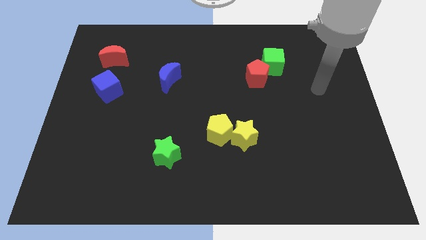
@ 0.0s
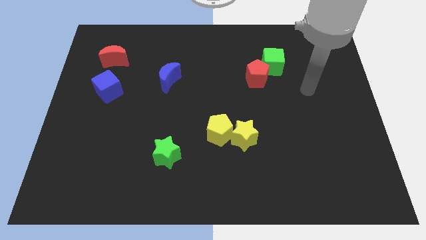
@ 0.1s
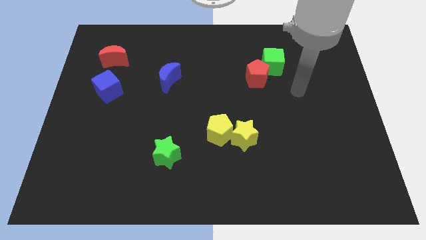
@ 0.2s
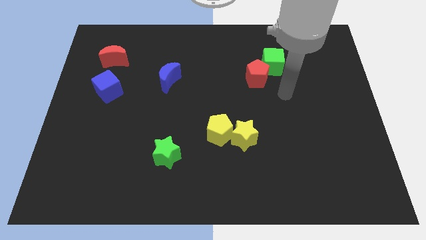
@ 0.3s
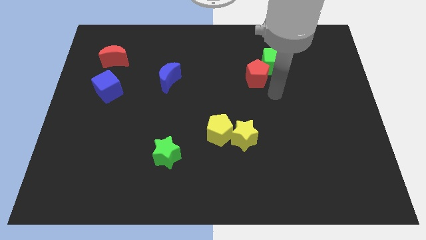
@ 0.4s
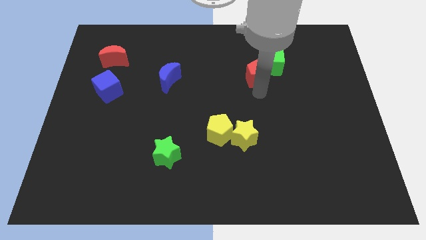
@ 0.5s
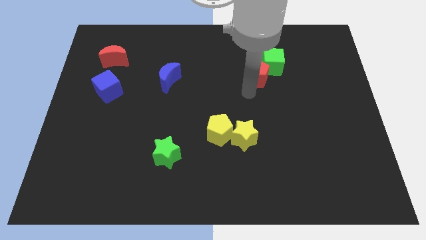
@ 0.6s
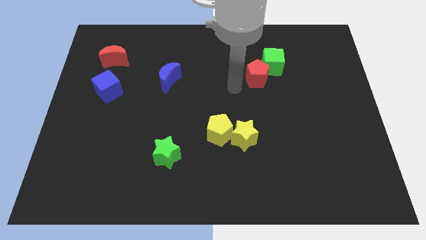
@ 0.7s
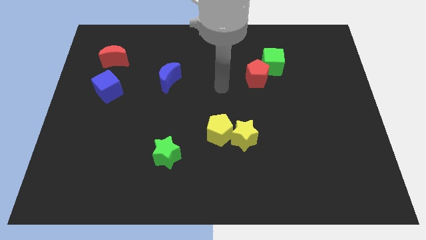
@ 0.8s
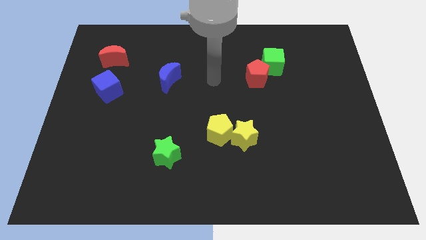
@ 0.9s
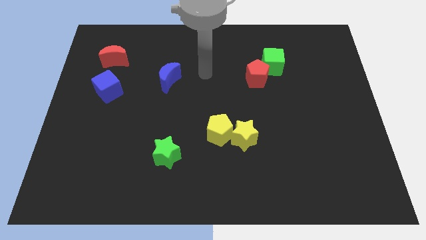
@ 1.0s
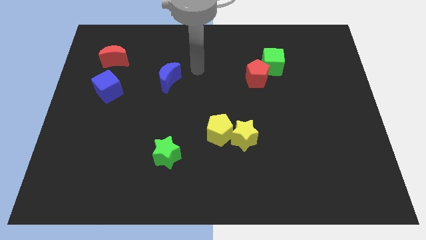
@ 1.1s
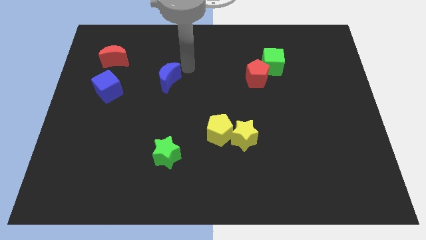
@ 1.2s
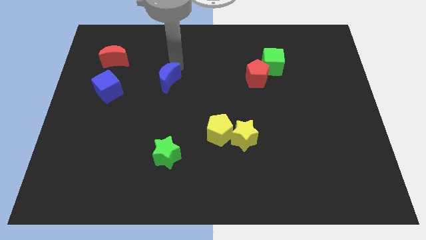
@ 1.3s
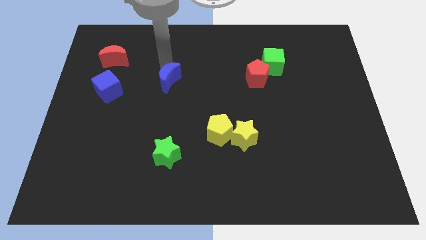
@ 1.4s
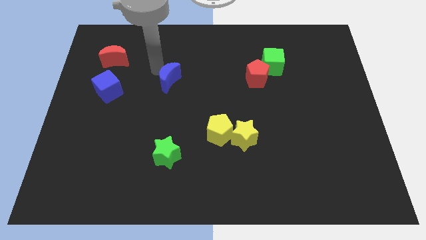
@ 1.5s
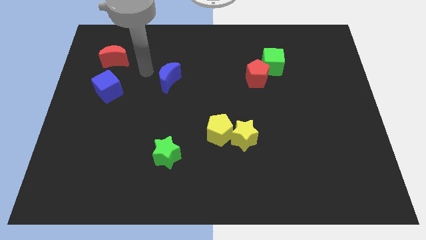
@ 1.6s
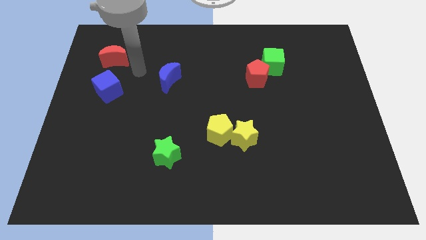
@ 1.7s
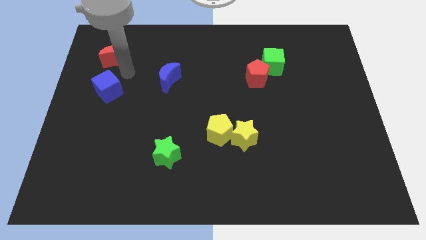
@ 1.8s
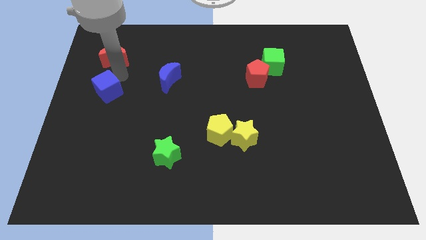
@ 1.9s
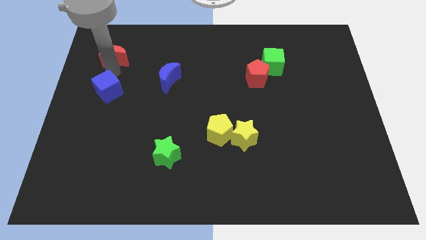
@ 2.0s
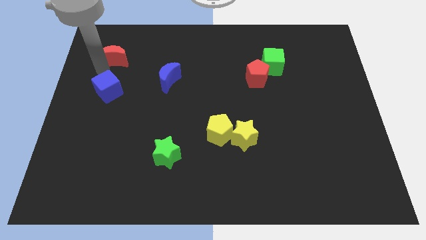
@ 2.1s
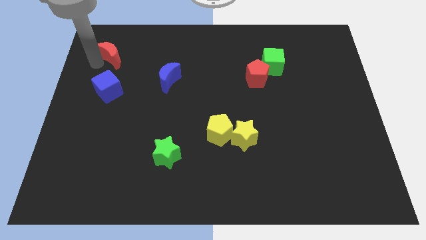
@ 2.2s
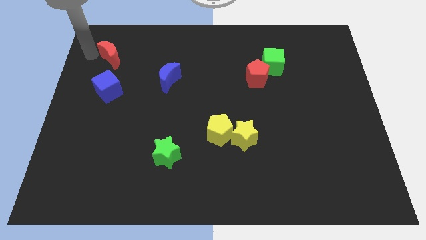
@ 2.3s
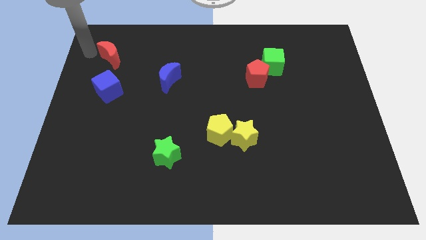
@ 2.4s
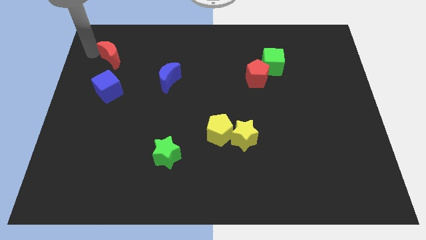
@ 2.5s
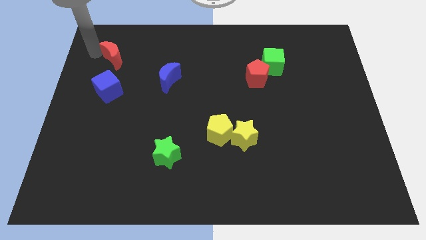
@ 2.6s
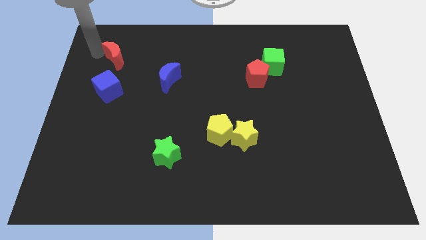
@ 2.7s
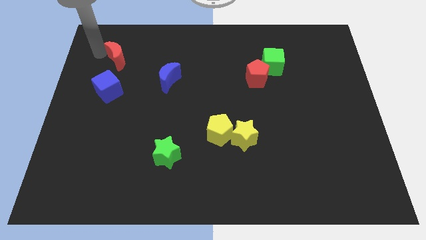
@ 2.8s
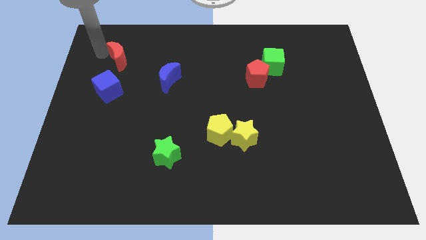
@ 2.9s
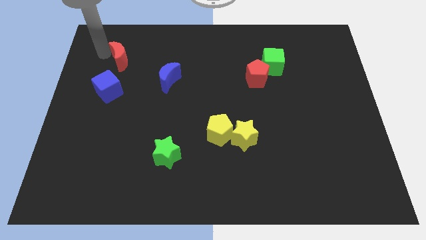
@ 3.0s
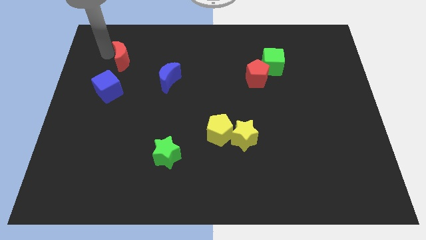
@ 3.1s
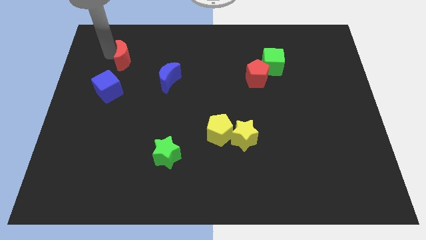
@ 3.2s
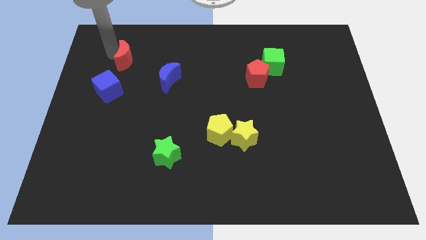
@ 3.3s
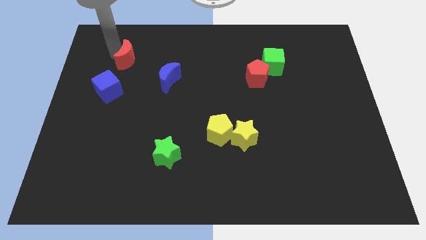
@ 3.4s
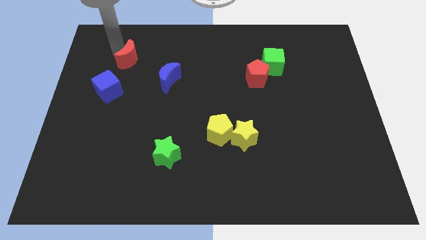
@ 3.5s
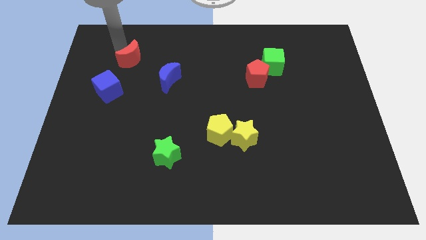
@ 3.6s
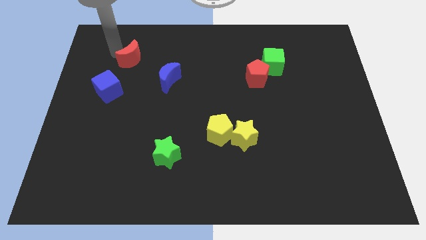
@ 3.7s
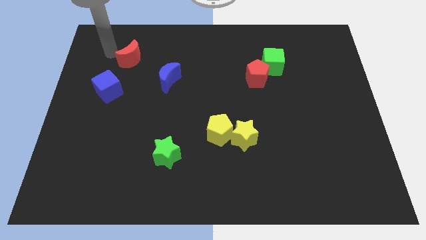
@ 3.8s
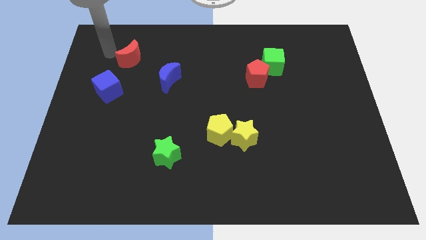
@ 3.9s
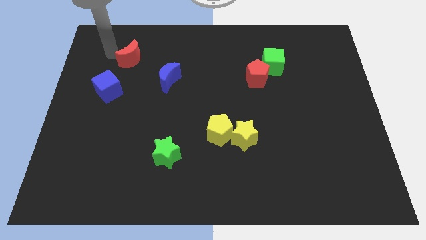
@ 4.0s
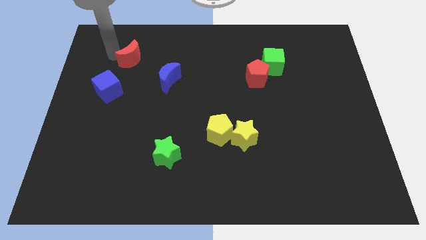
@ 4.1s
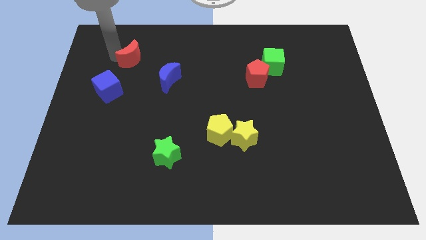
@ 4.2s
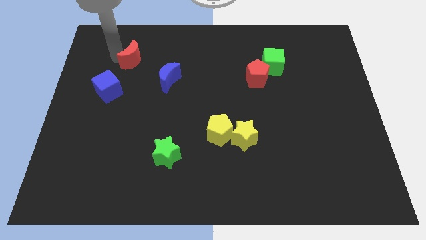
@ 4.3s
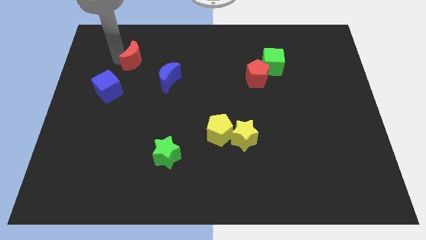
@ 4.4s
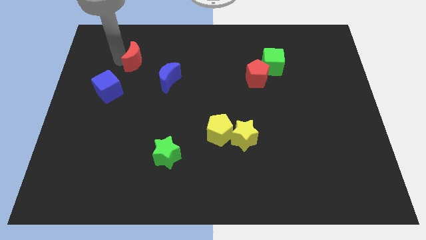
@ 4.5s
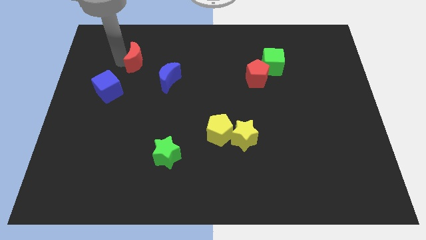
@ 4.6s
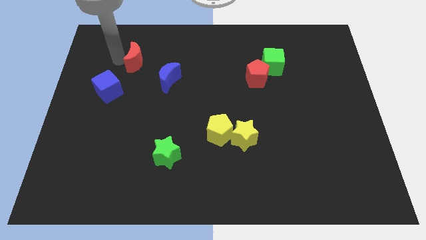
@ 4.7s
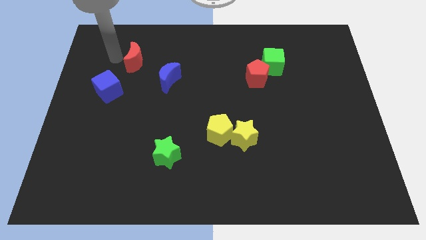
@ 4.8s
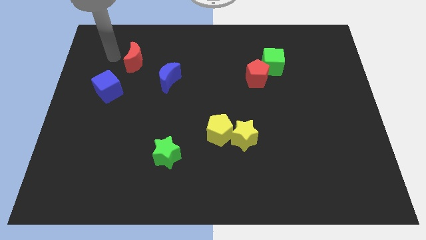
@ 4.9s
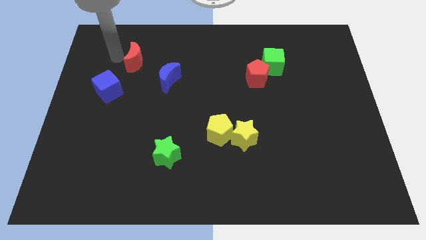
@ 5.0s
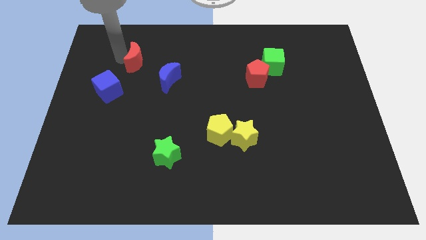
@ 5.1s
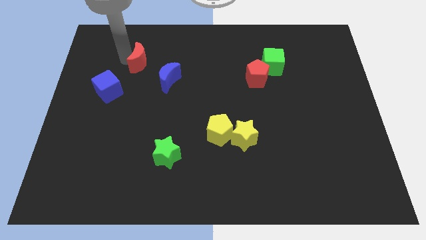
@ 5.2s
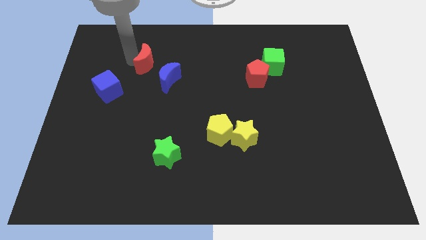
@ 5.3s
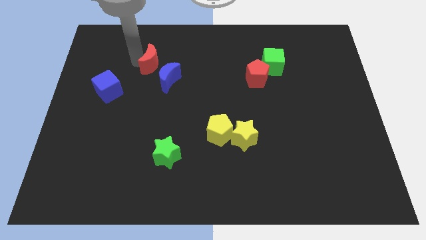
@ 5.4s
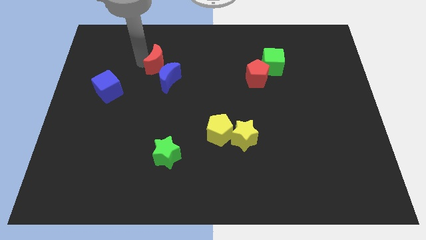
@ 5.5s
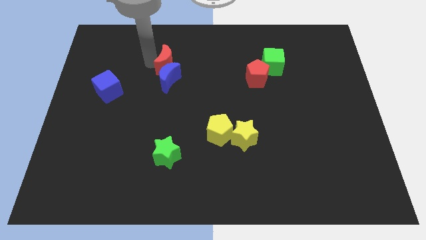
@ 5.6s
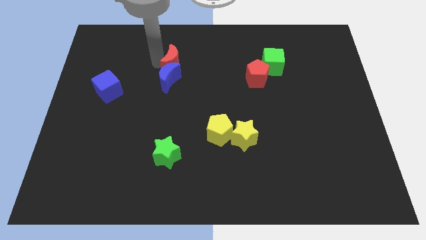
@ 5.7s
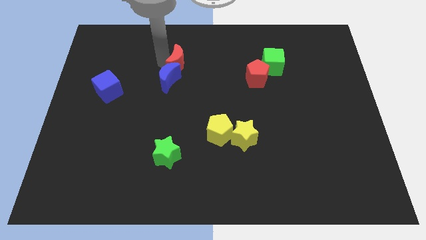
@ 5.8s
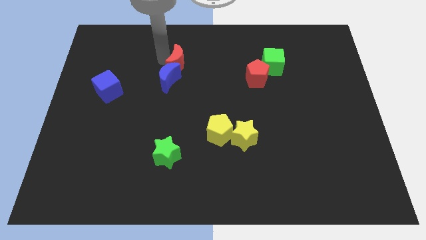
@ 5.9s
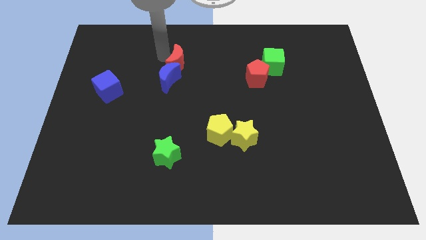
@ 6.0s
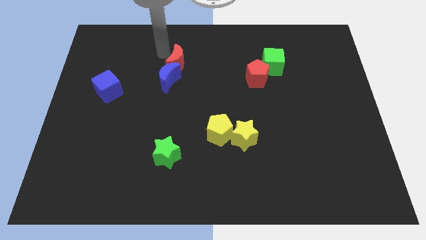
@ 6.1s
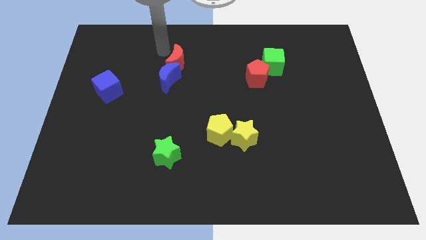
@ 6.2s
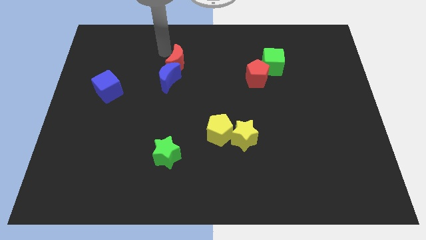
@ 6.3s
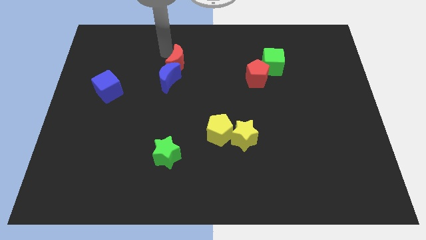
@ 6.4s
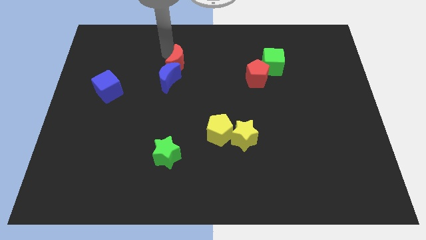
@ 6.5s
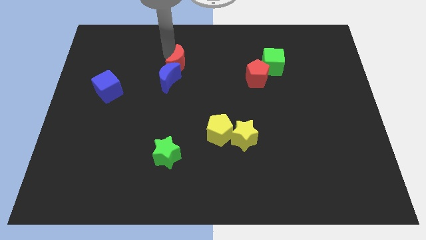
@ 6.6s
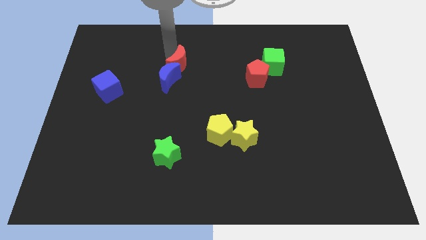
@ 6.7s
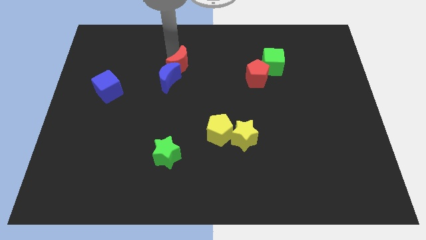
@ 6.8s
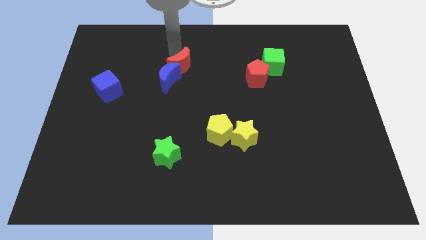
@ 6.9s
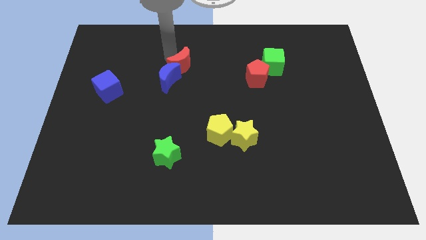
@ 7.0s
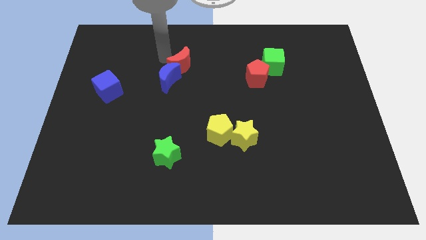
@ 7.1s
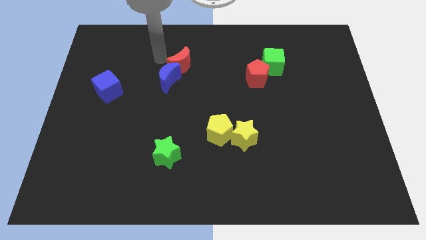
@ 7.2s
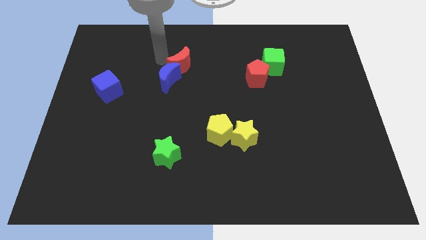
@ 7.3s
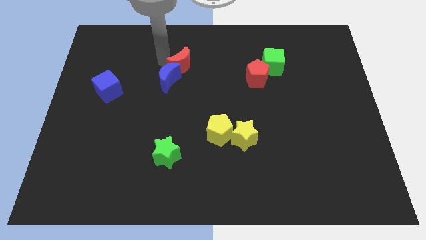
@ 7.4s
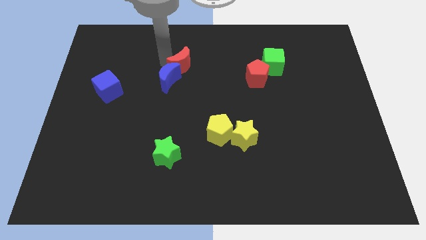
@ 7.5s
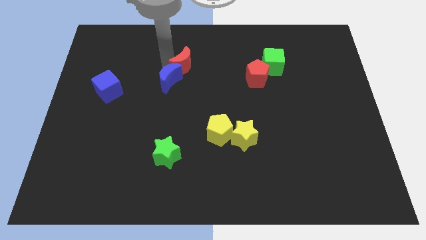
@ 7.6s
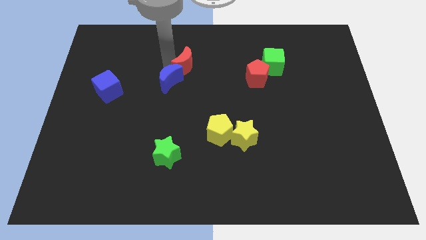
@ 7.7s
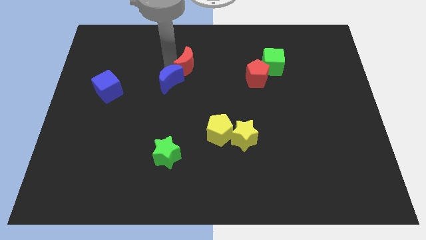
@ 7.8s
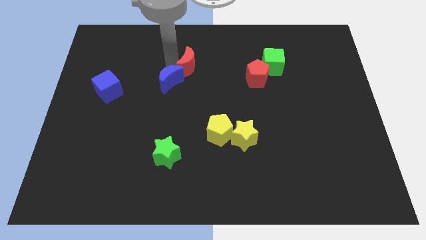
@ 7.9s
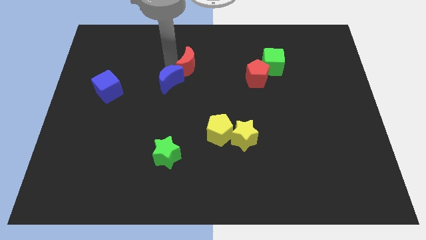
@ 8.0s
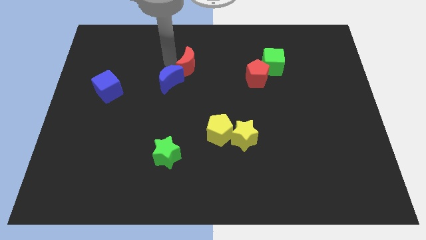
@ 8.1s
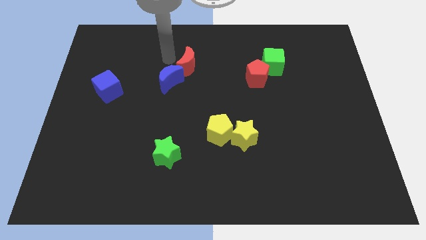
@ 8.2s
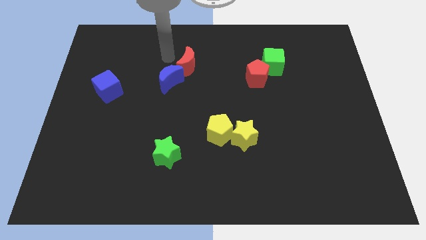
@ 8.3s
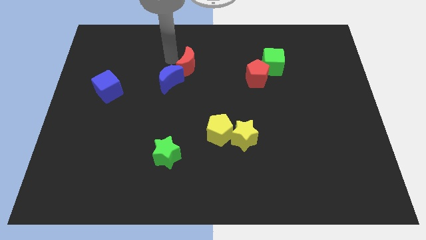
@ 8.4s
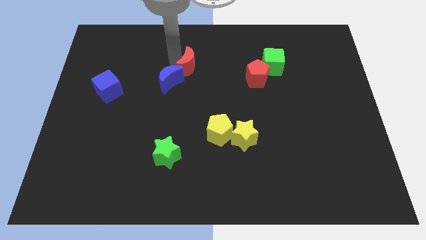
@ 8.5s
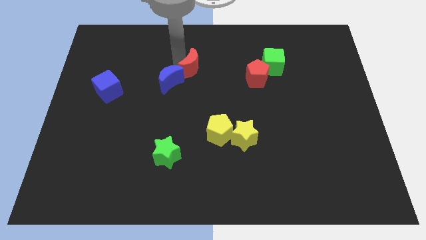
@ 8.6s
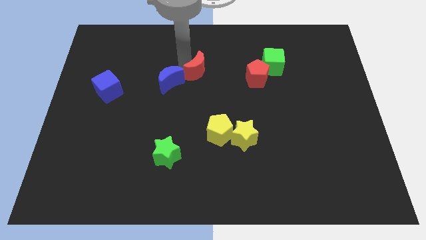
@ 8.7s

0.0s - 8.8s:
move the red moon left of the red pentagon
